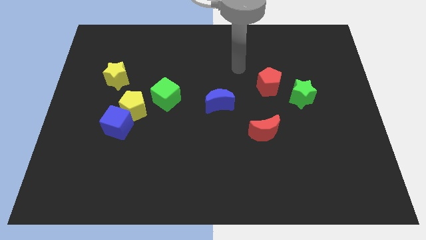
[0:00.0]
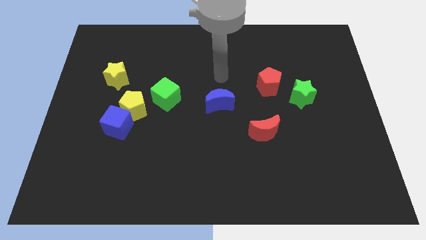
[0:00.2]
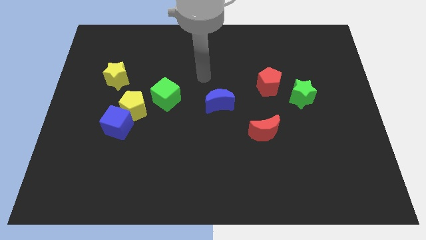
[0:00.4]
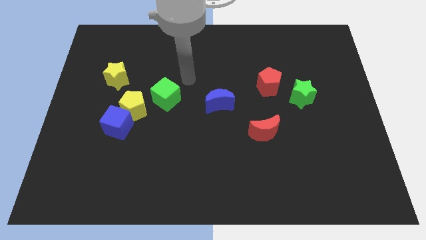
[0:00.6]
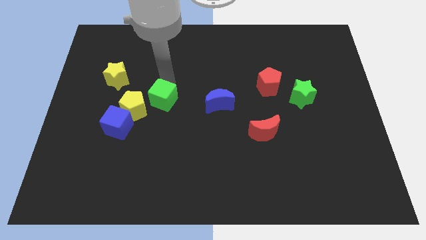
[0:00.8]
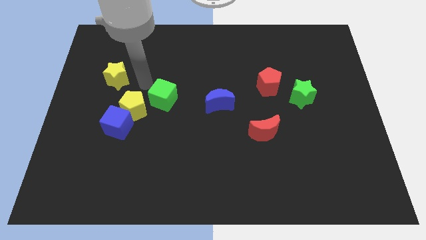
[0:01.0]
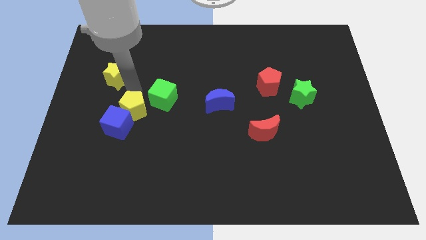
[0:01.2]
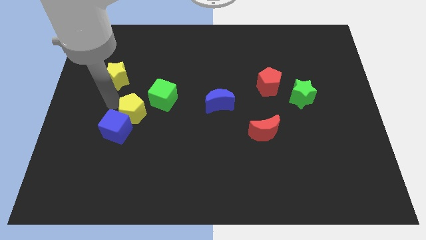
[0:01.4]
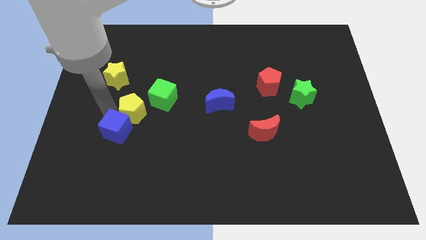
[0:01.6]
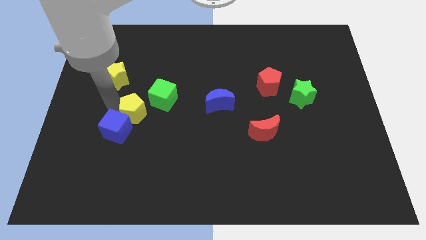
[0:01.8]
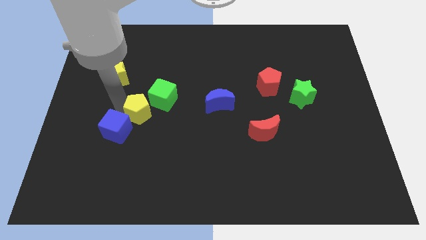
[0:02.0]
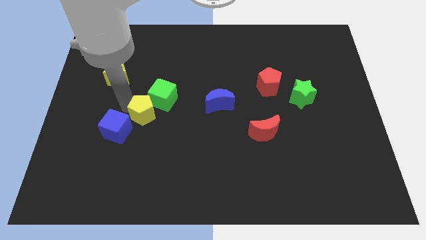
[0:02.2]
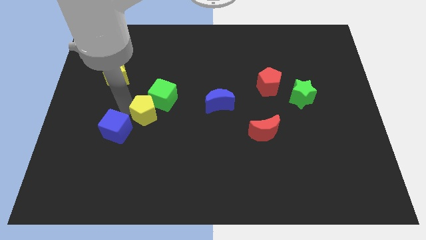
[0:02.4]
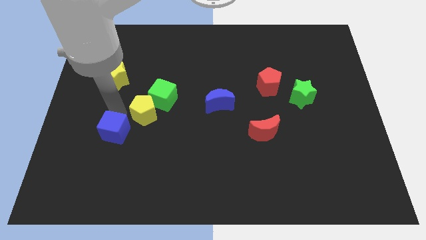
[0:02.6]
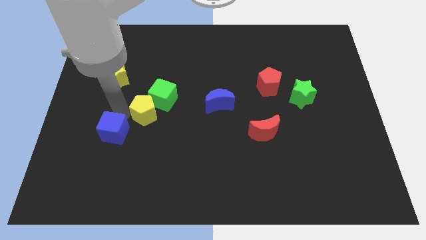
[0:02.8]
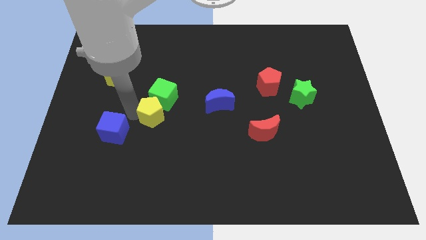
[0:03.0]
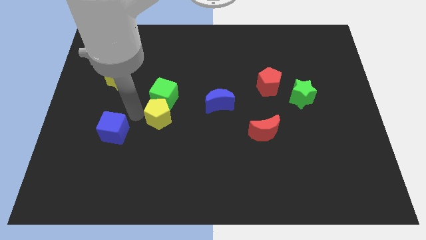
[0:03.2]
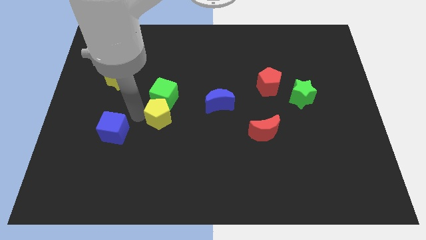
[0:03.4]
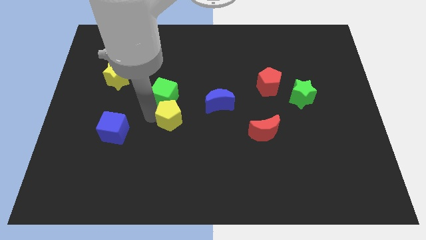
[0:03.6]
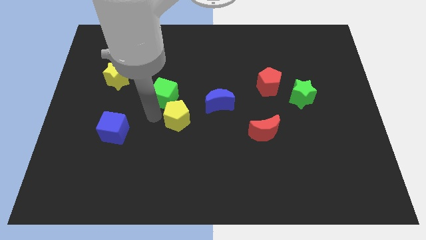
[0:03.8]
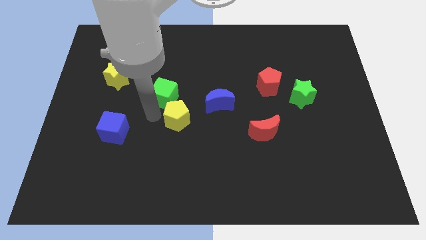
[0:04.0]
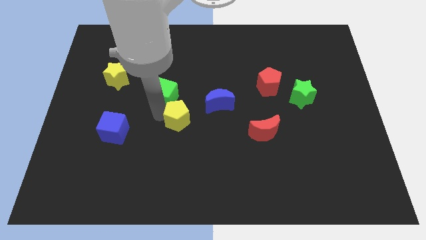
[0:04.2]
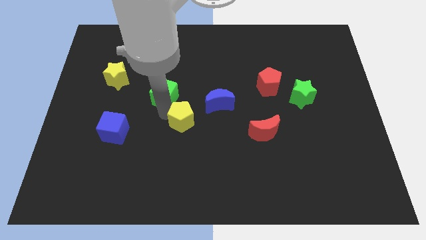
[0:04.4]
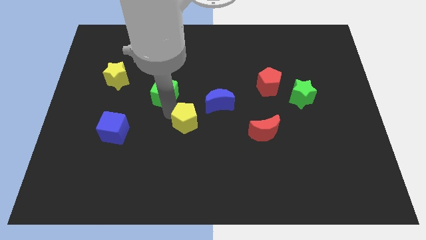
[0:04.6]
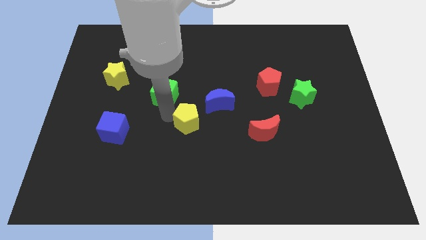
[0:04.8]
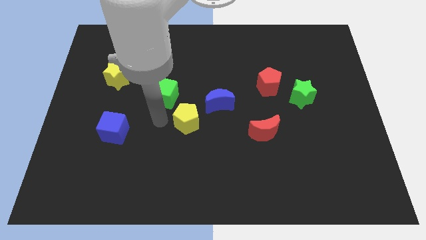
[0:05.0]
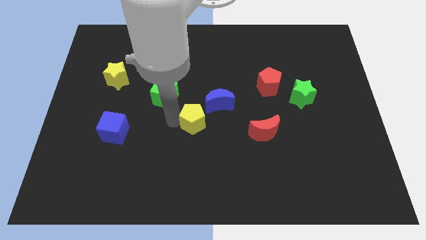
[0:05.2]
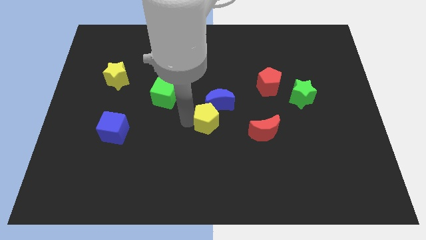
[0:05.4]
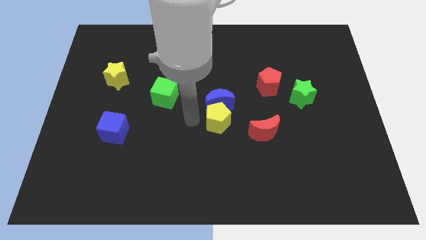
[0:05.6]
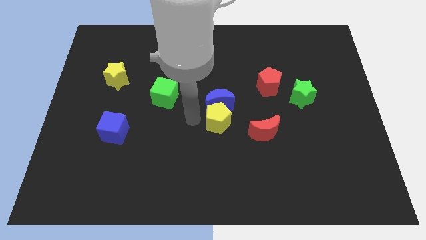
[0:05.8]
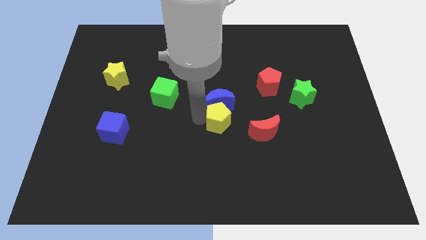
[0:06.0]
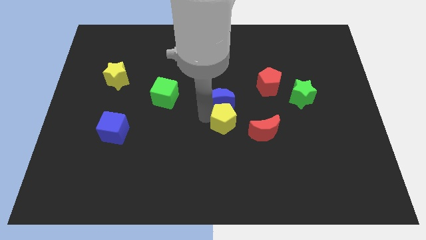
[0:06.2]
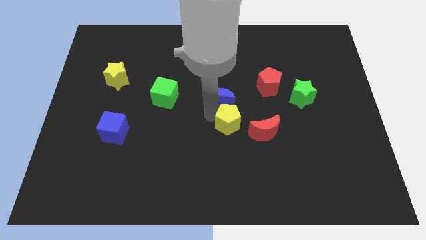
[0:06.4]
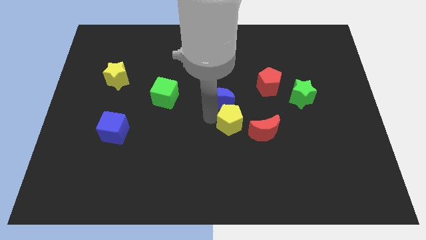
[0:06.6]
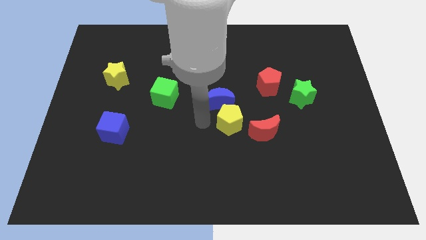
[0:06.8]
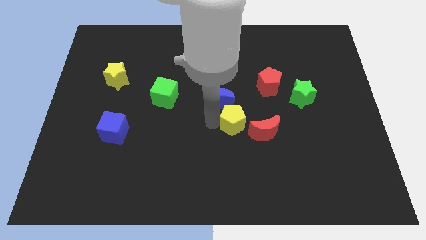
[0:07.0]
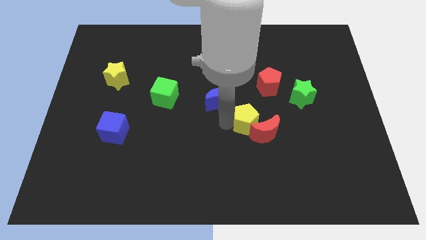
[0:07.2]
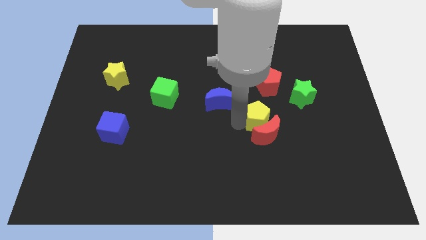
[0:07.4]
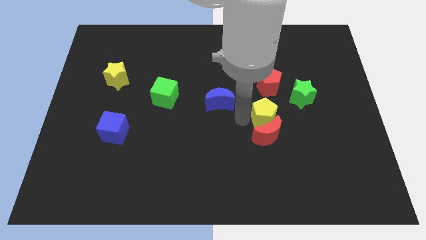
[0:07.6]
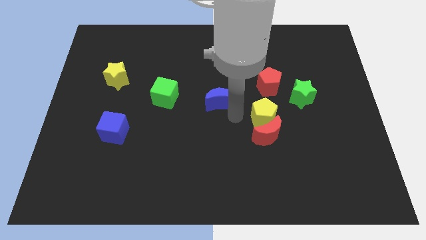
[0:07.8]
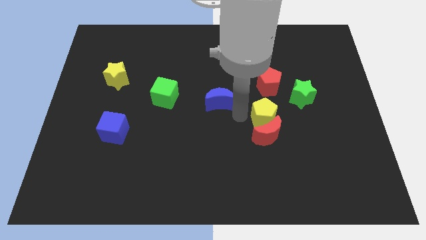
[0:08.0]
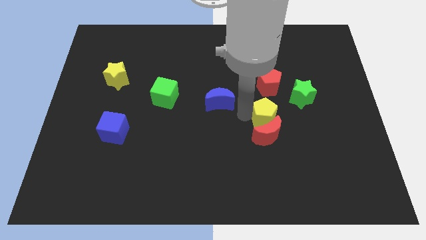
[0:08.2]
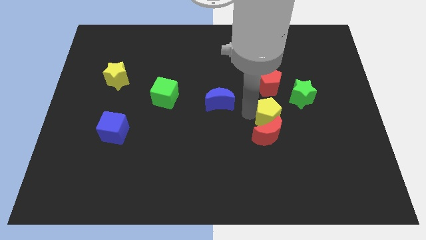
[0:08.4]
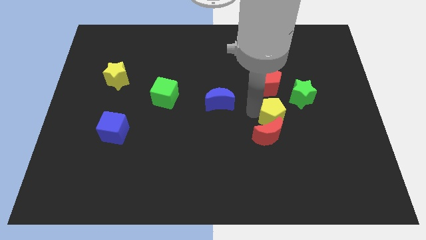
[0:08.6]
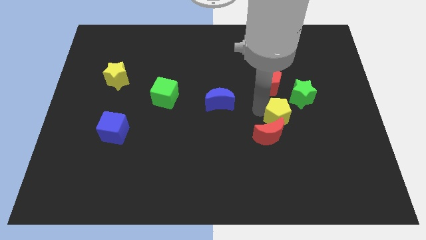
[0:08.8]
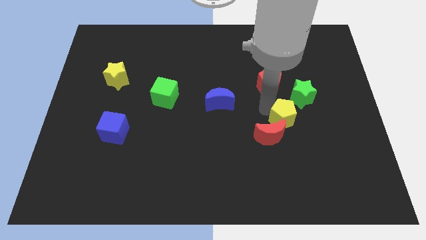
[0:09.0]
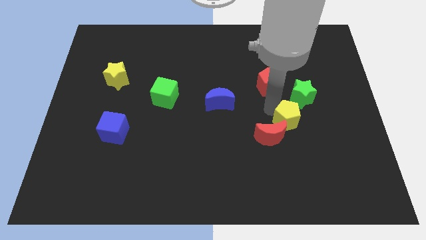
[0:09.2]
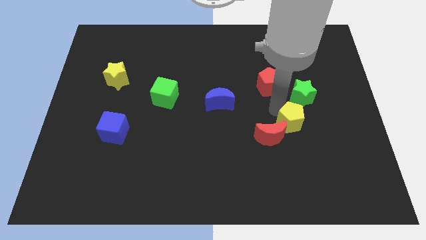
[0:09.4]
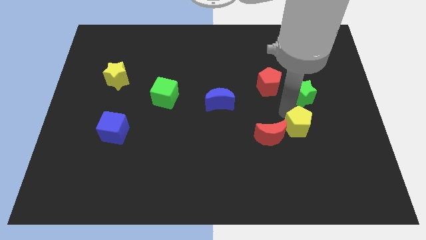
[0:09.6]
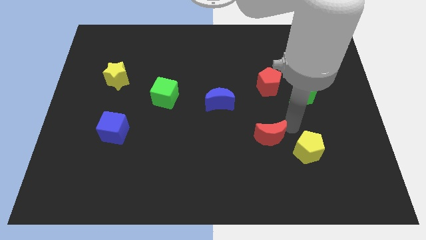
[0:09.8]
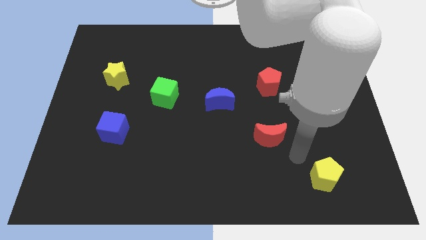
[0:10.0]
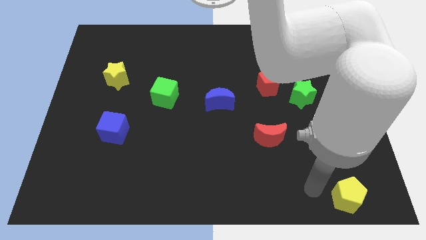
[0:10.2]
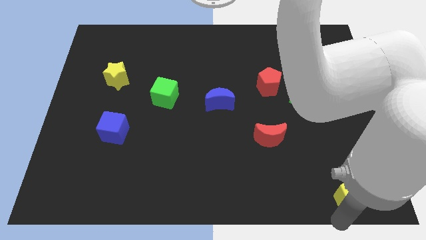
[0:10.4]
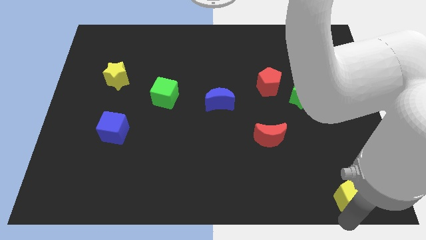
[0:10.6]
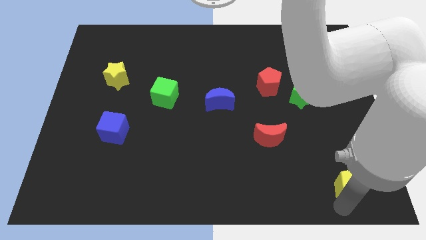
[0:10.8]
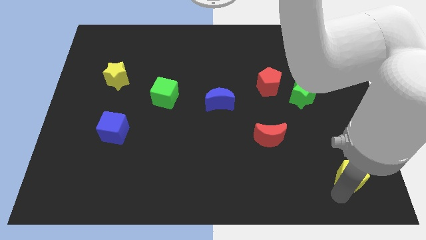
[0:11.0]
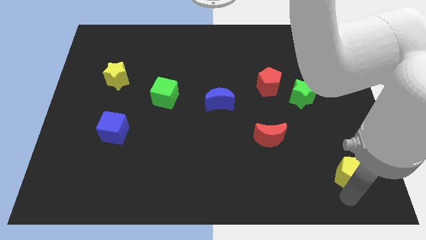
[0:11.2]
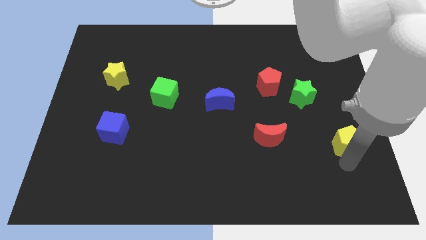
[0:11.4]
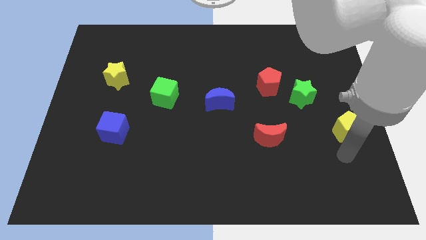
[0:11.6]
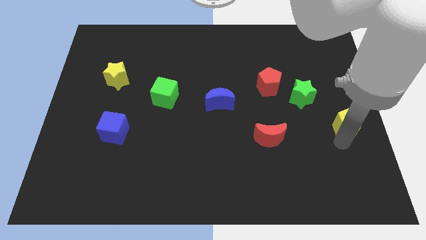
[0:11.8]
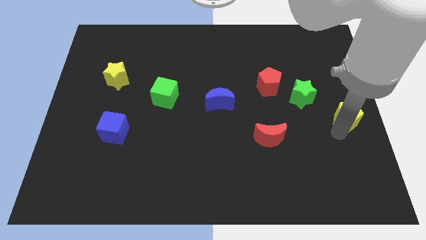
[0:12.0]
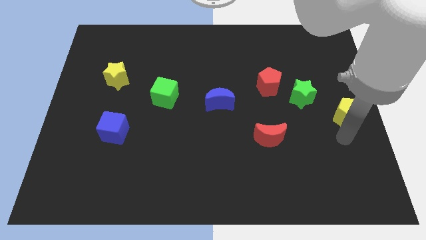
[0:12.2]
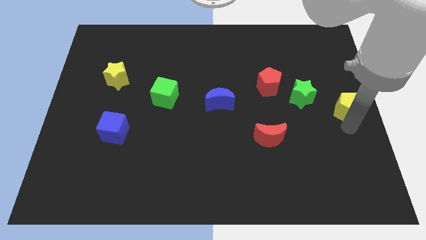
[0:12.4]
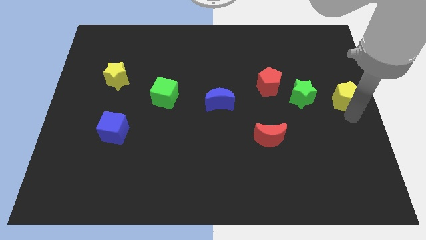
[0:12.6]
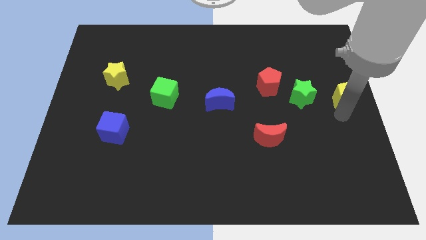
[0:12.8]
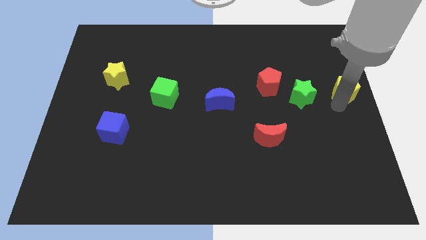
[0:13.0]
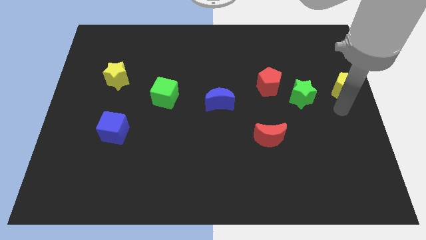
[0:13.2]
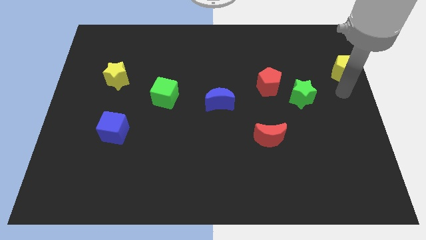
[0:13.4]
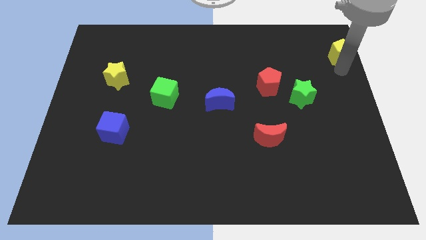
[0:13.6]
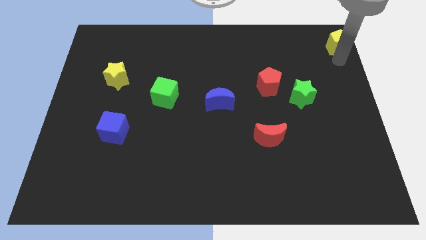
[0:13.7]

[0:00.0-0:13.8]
put the yellow pentagon to the top right
